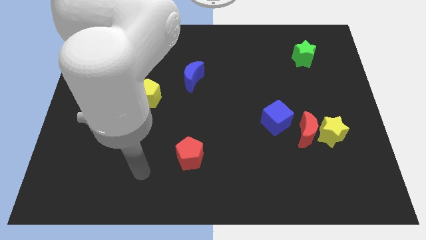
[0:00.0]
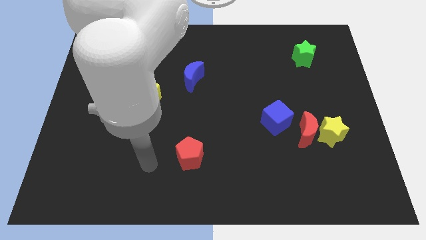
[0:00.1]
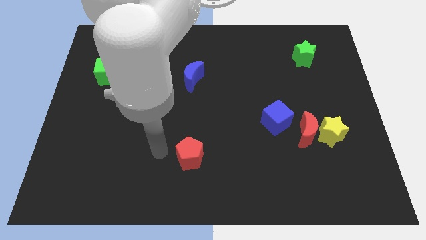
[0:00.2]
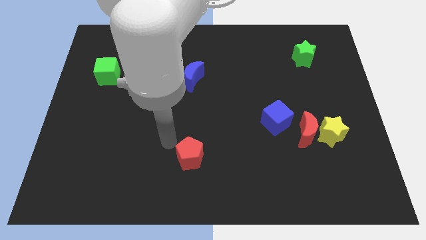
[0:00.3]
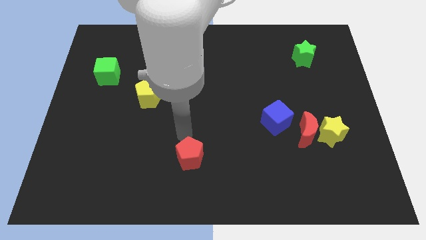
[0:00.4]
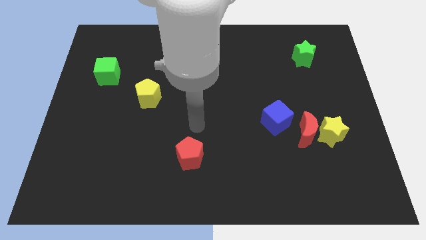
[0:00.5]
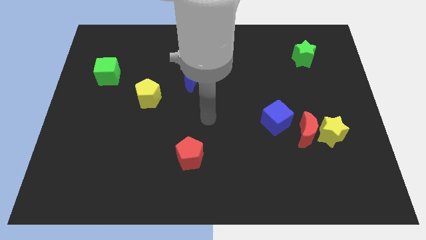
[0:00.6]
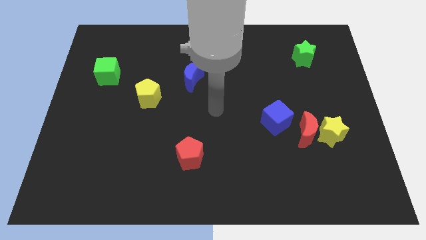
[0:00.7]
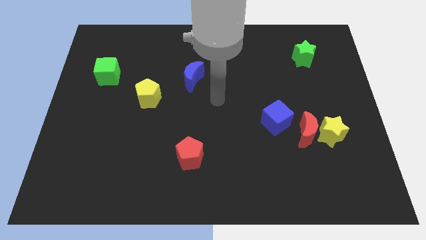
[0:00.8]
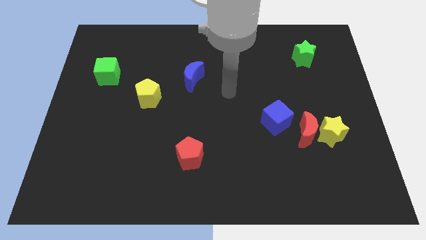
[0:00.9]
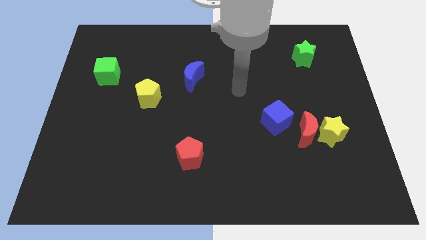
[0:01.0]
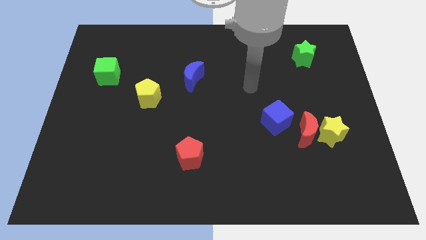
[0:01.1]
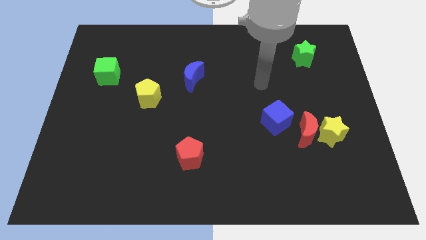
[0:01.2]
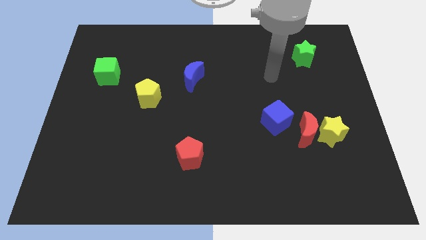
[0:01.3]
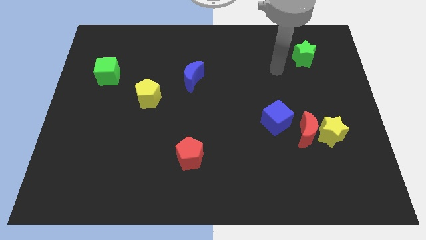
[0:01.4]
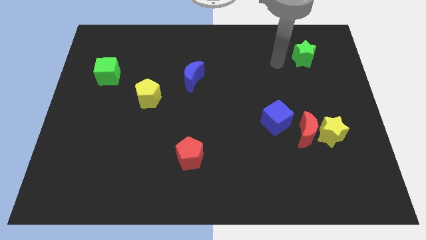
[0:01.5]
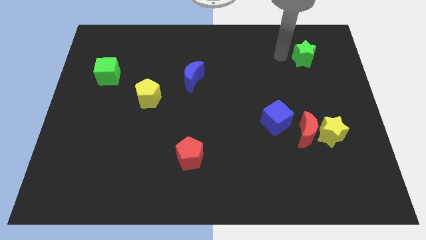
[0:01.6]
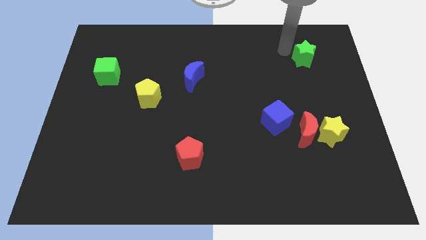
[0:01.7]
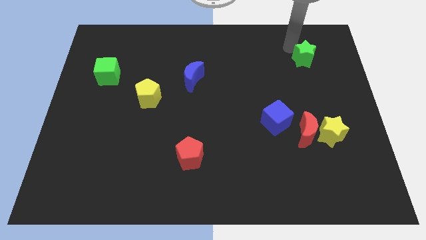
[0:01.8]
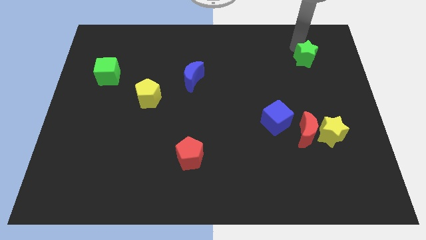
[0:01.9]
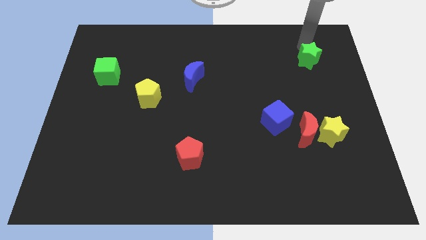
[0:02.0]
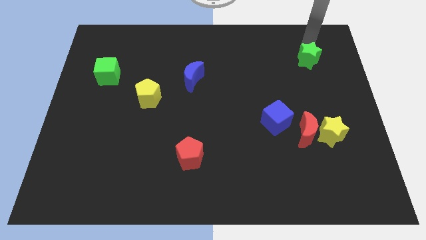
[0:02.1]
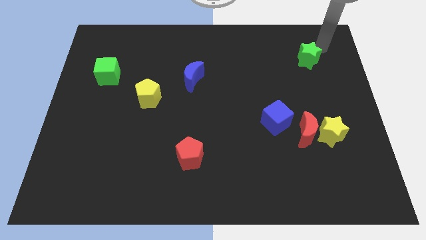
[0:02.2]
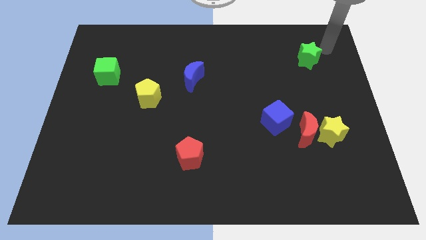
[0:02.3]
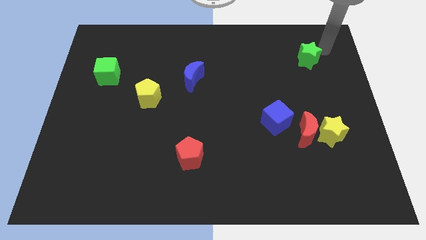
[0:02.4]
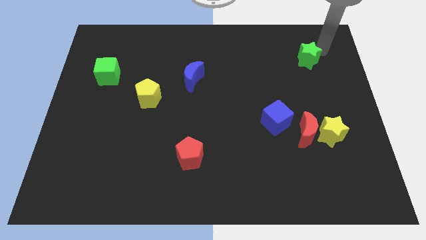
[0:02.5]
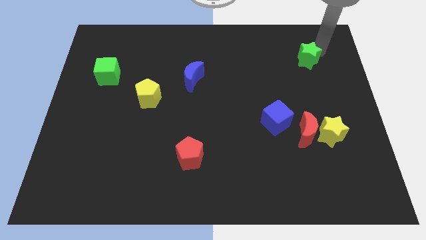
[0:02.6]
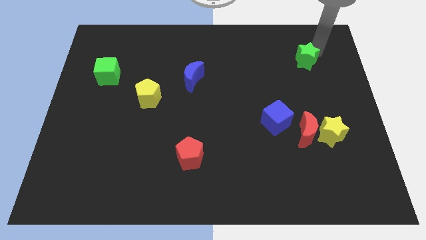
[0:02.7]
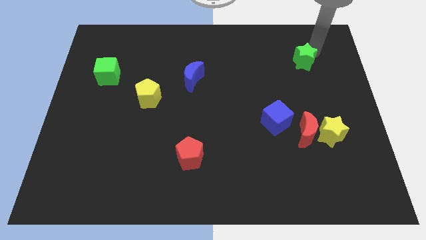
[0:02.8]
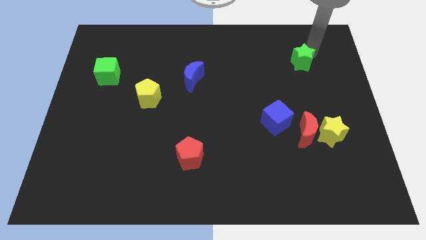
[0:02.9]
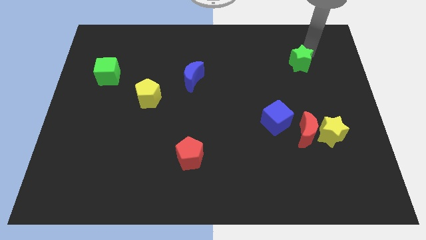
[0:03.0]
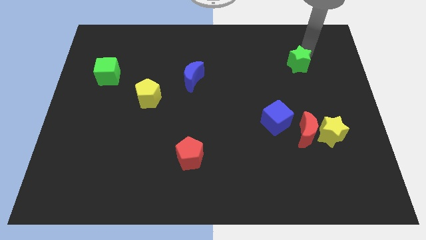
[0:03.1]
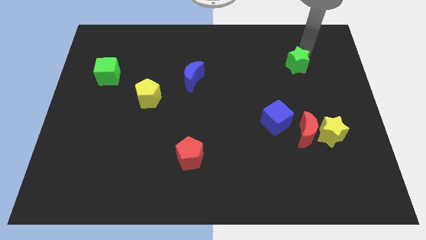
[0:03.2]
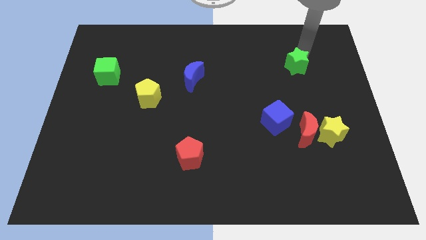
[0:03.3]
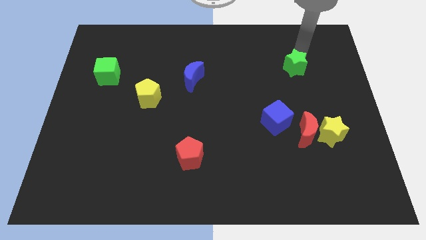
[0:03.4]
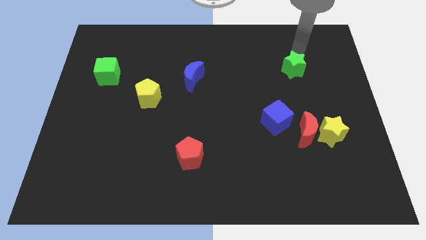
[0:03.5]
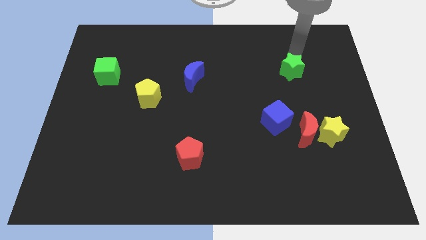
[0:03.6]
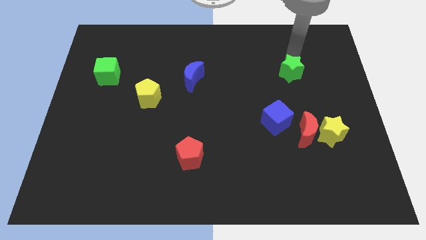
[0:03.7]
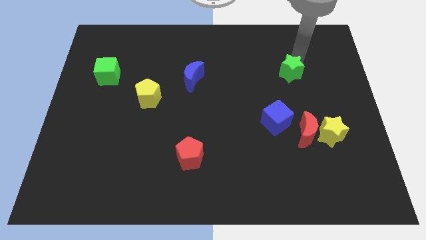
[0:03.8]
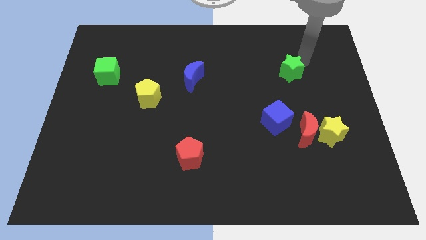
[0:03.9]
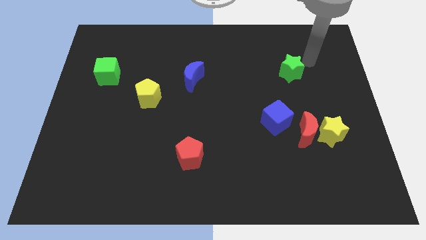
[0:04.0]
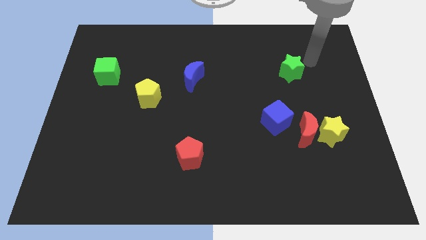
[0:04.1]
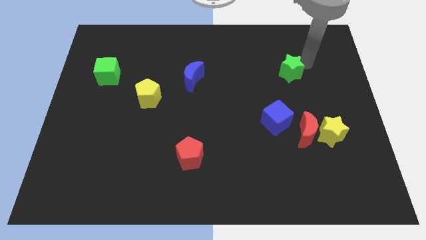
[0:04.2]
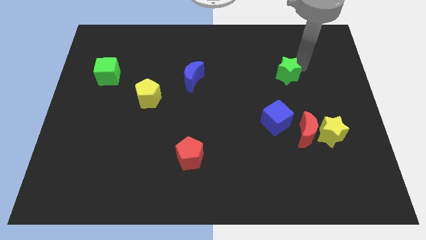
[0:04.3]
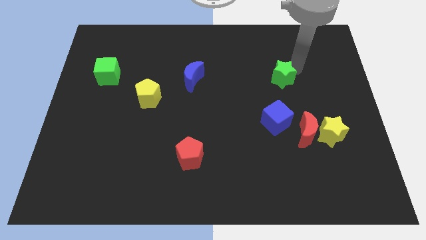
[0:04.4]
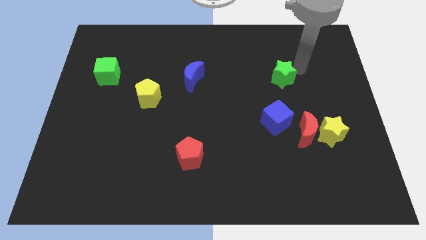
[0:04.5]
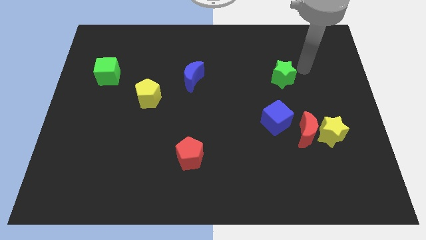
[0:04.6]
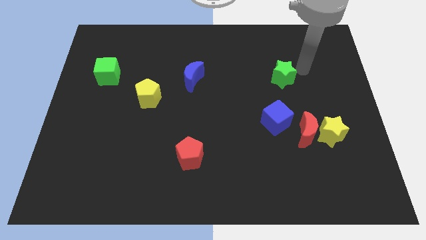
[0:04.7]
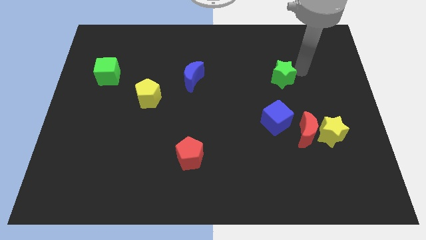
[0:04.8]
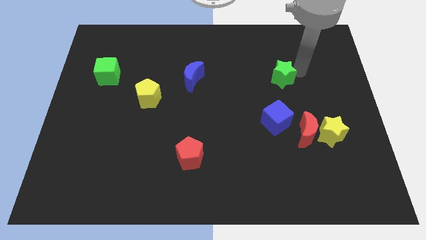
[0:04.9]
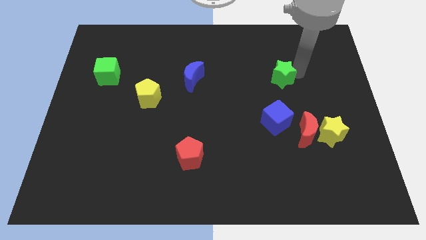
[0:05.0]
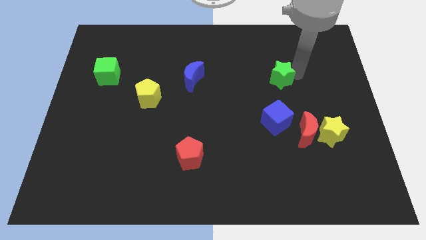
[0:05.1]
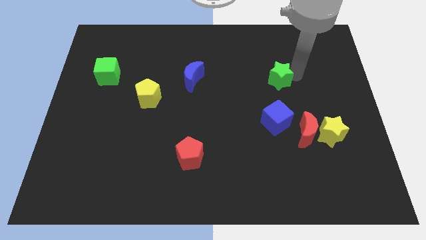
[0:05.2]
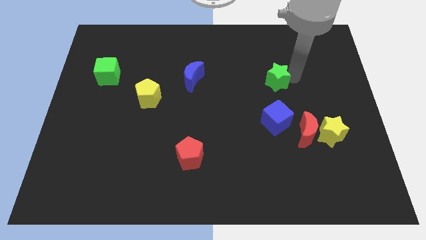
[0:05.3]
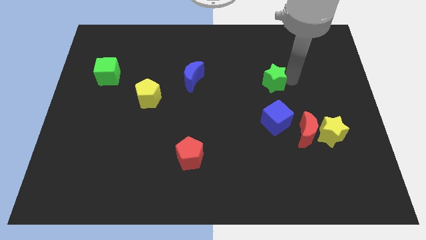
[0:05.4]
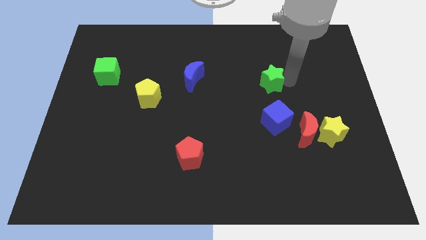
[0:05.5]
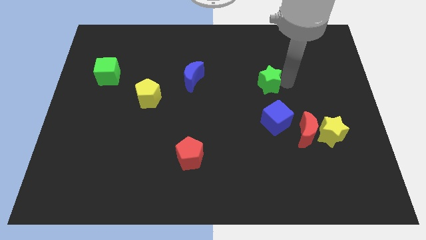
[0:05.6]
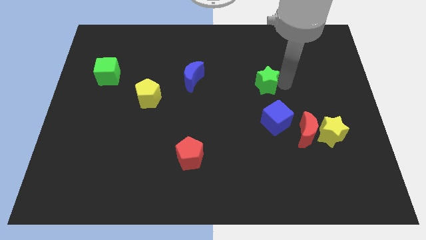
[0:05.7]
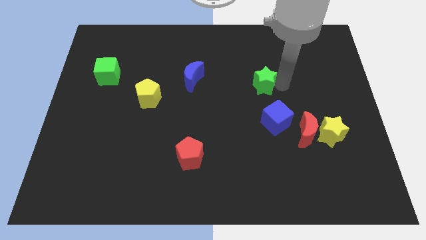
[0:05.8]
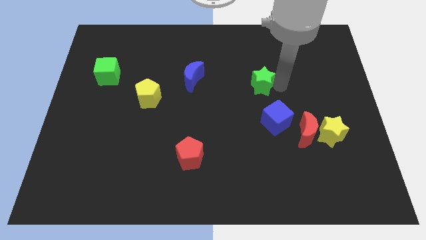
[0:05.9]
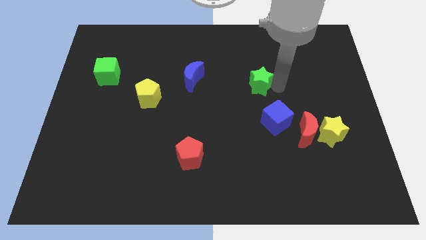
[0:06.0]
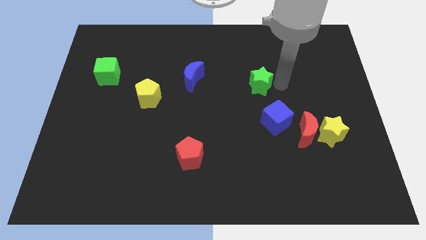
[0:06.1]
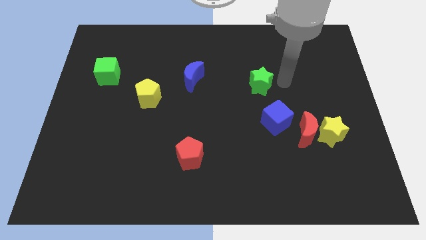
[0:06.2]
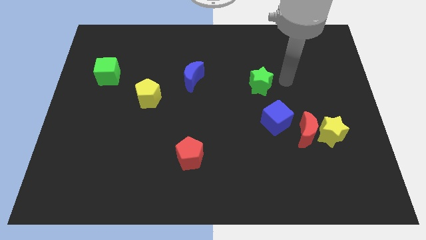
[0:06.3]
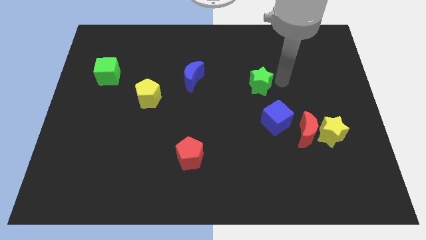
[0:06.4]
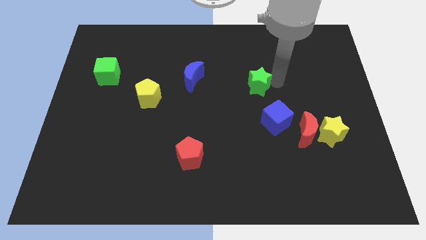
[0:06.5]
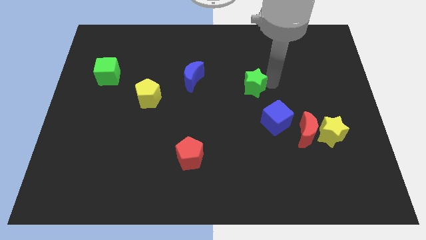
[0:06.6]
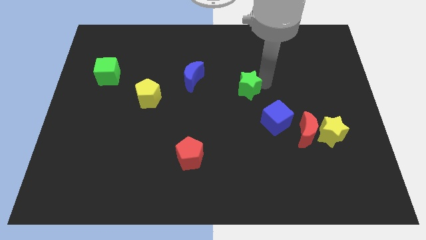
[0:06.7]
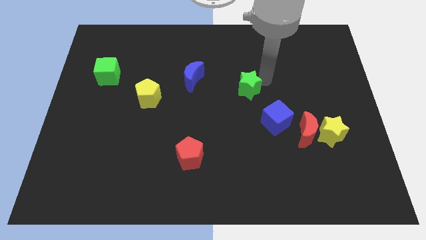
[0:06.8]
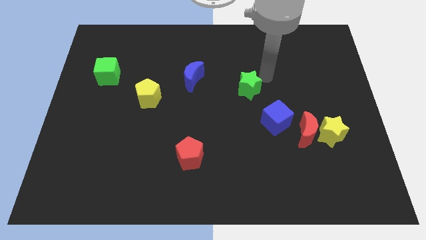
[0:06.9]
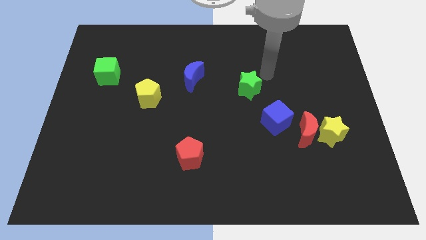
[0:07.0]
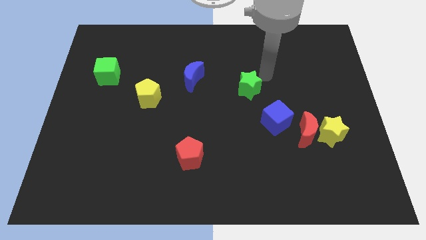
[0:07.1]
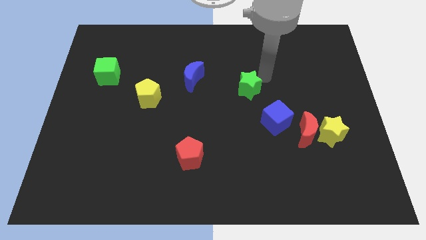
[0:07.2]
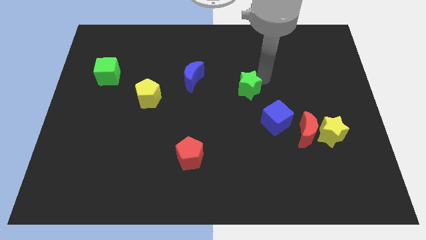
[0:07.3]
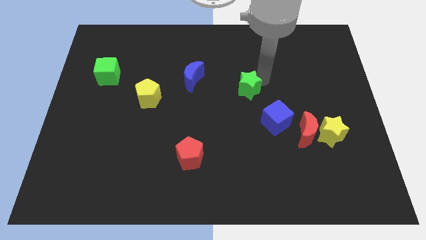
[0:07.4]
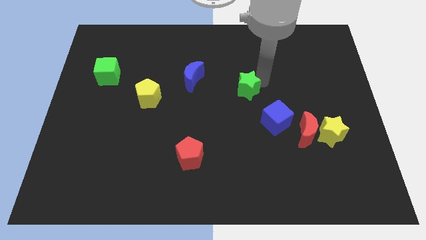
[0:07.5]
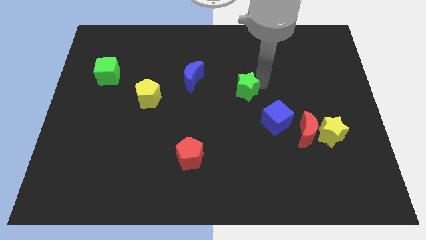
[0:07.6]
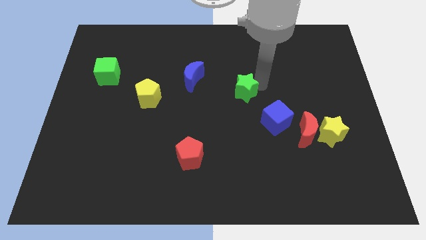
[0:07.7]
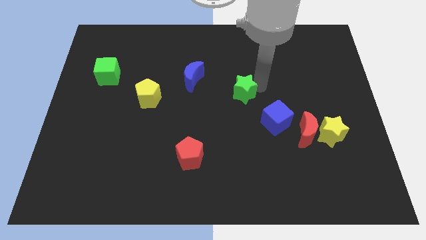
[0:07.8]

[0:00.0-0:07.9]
slide the green star downwards and left diagonally
